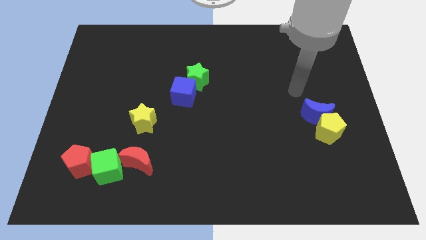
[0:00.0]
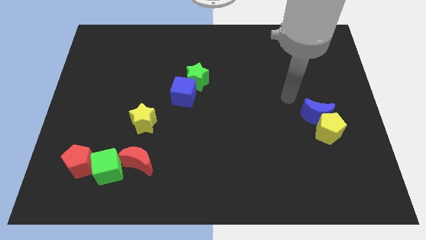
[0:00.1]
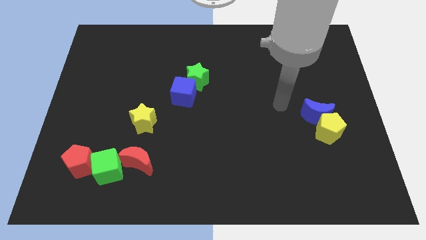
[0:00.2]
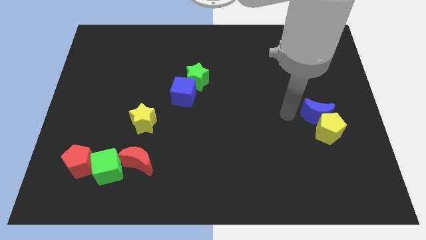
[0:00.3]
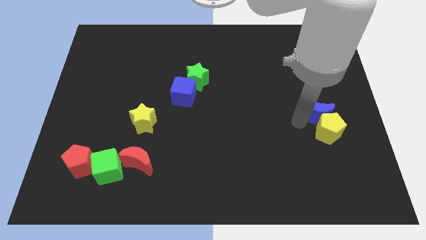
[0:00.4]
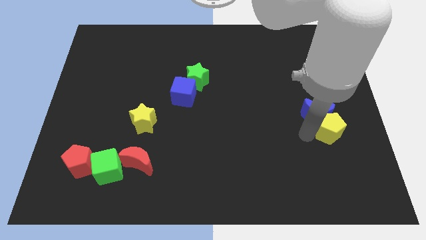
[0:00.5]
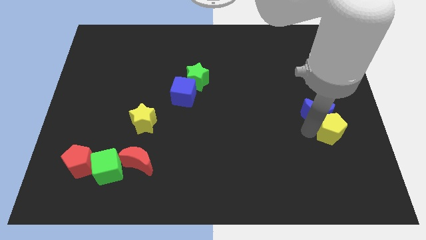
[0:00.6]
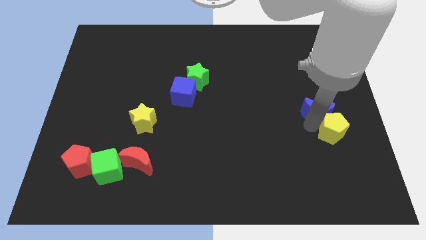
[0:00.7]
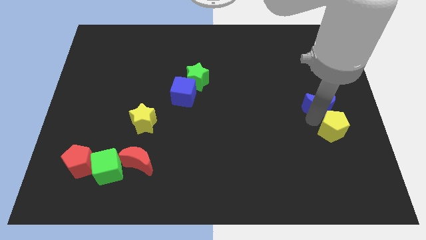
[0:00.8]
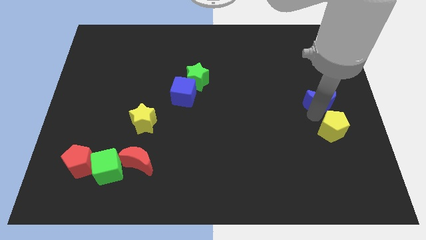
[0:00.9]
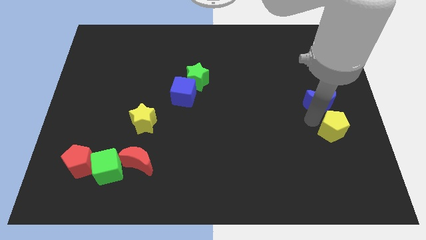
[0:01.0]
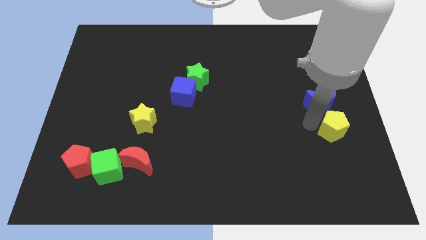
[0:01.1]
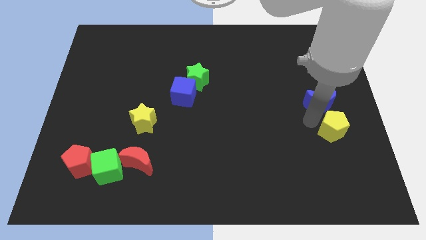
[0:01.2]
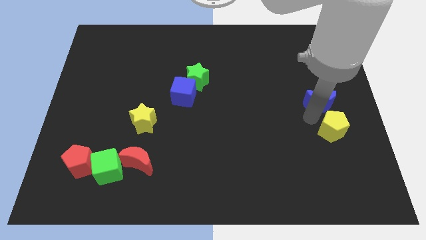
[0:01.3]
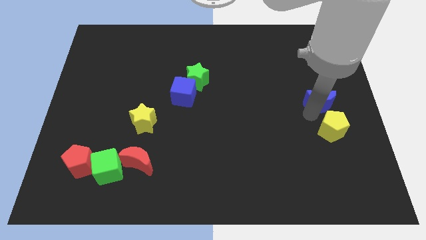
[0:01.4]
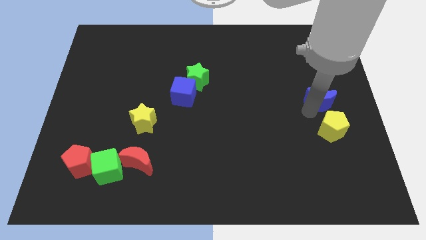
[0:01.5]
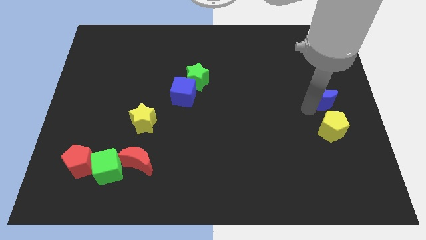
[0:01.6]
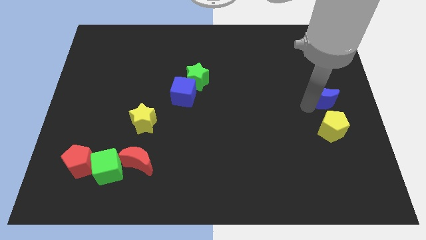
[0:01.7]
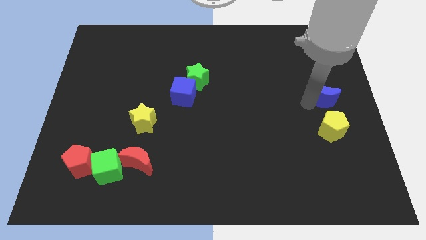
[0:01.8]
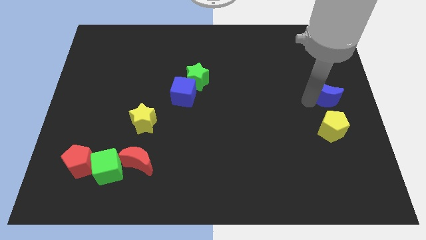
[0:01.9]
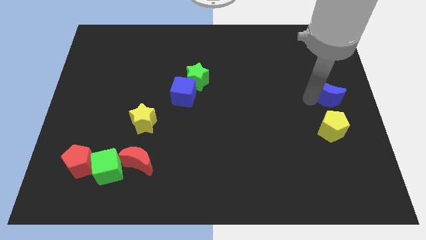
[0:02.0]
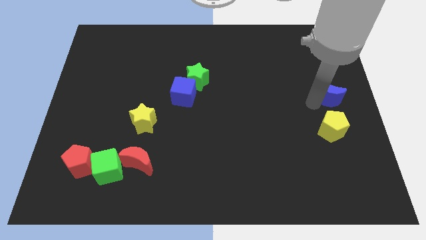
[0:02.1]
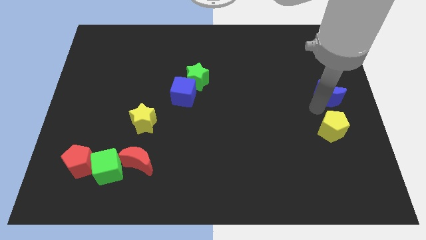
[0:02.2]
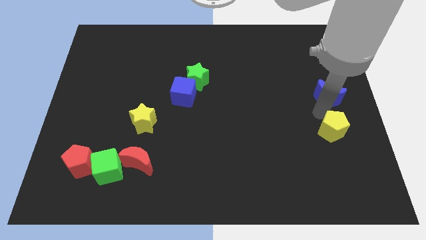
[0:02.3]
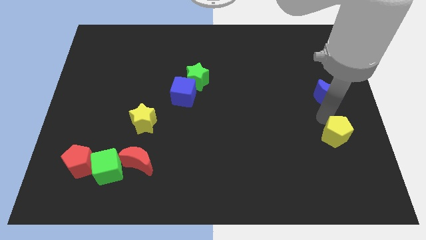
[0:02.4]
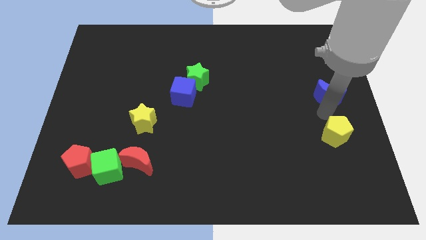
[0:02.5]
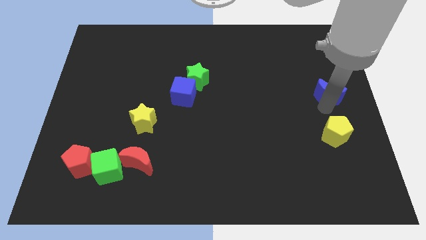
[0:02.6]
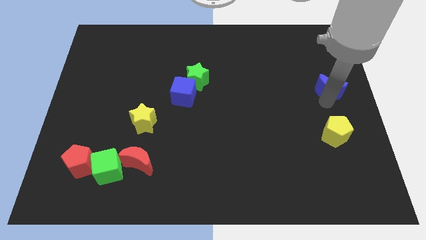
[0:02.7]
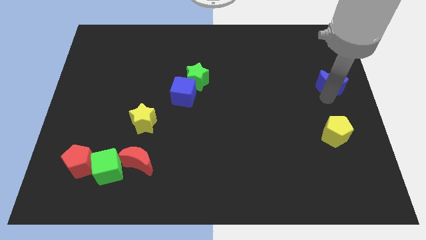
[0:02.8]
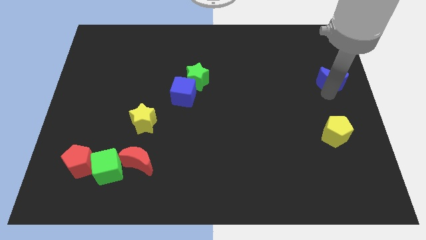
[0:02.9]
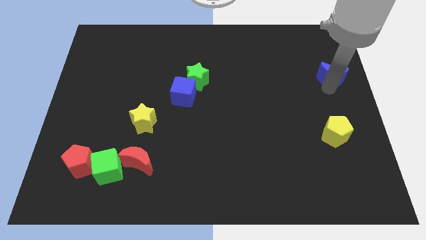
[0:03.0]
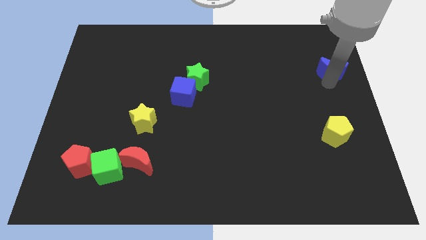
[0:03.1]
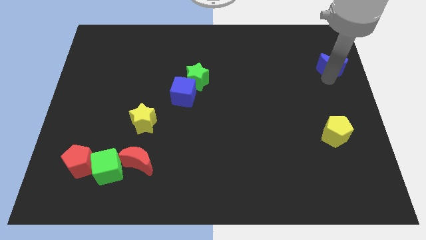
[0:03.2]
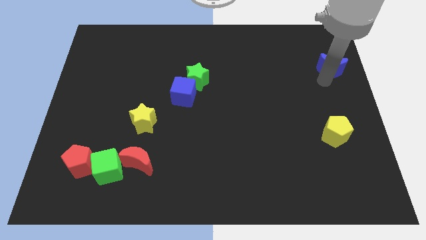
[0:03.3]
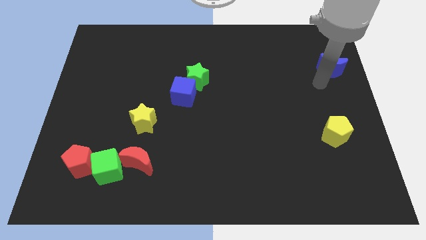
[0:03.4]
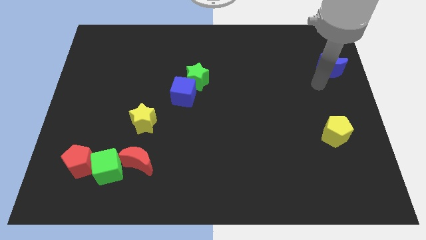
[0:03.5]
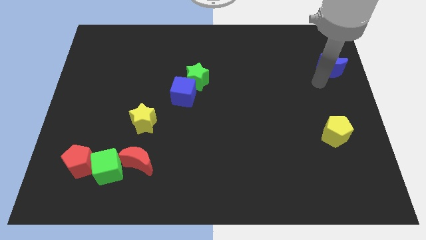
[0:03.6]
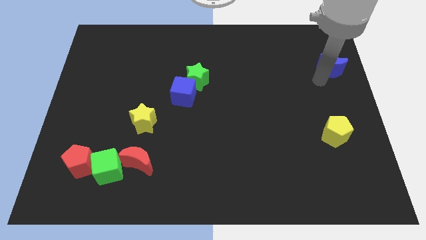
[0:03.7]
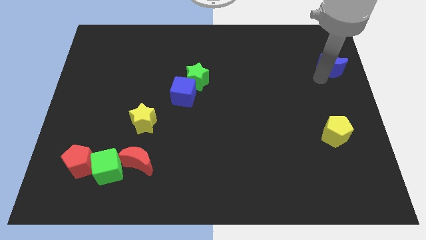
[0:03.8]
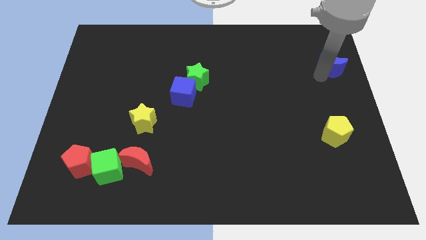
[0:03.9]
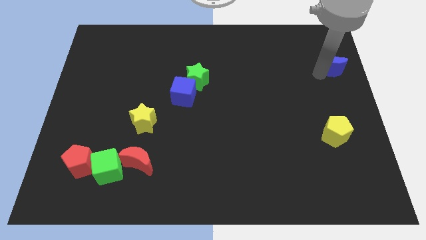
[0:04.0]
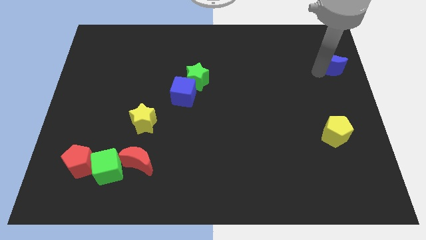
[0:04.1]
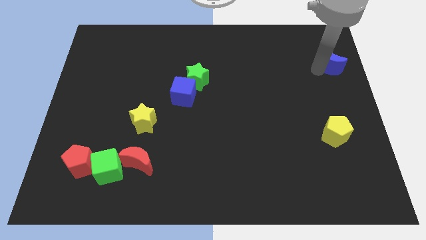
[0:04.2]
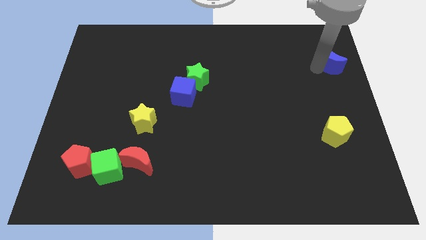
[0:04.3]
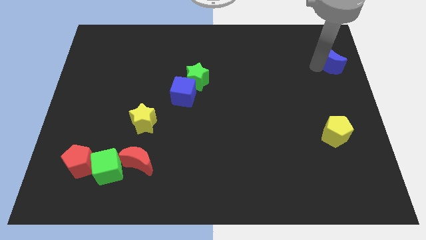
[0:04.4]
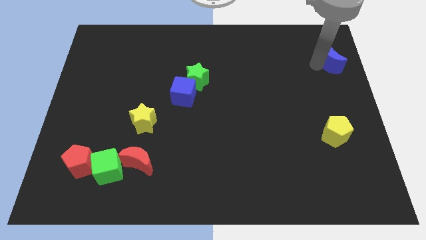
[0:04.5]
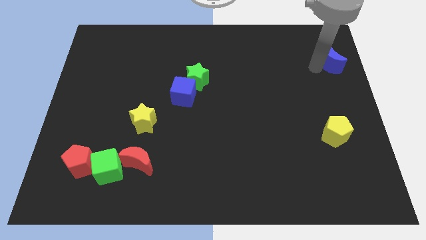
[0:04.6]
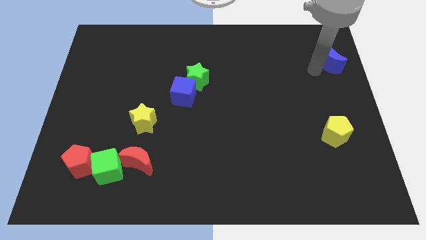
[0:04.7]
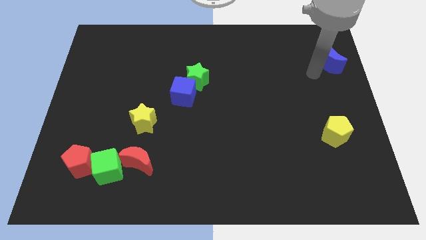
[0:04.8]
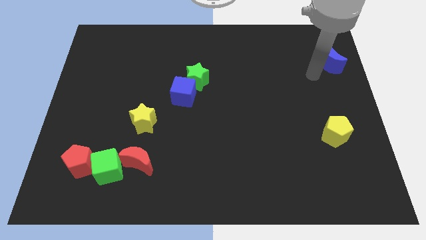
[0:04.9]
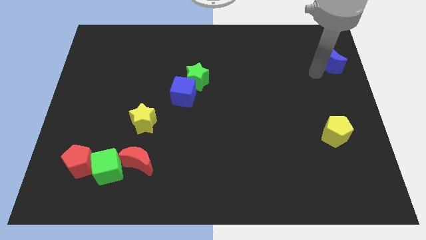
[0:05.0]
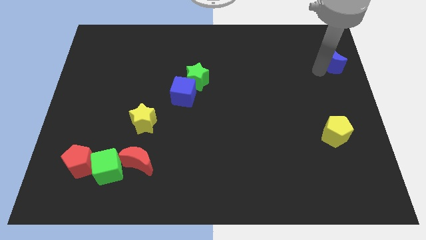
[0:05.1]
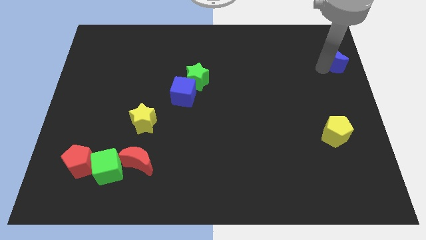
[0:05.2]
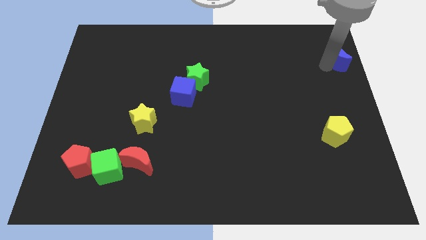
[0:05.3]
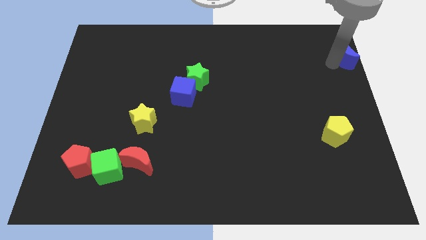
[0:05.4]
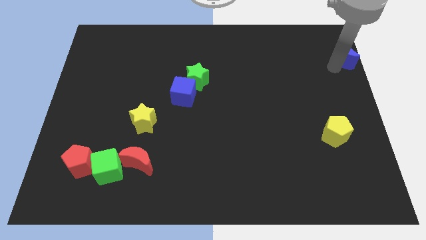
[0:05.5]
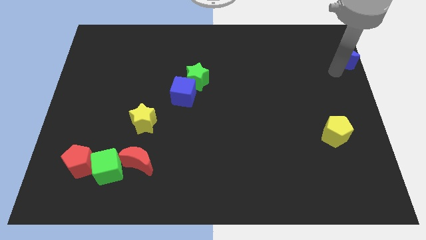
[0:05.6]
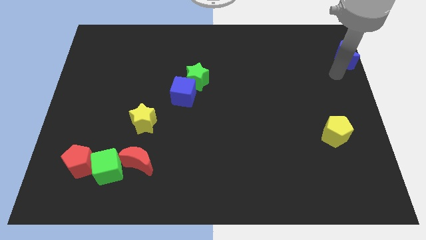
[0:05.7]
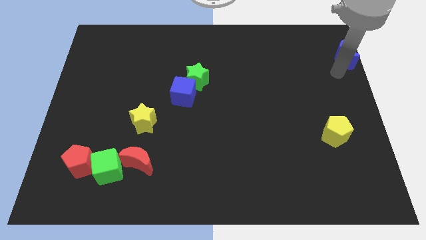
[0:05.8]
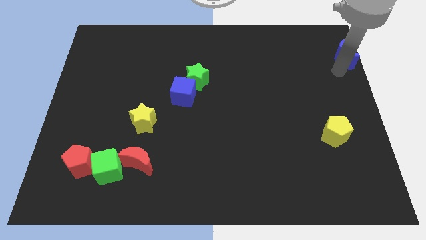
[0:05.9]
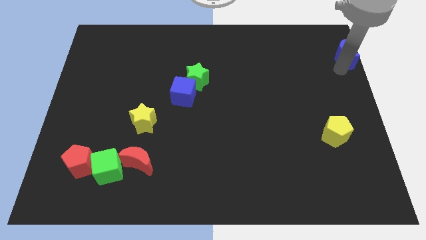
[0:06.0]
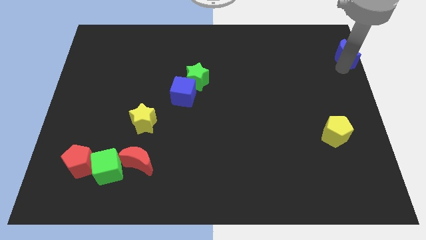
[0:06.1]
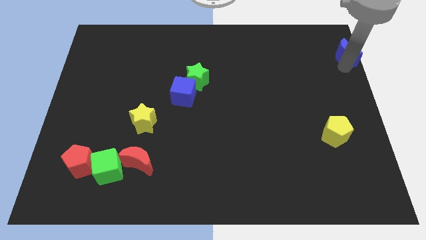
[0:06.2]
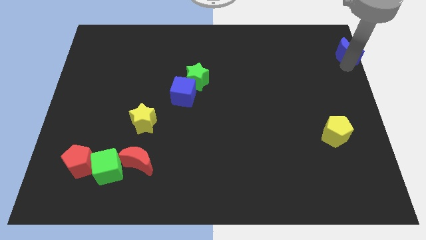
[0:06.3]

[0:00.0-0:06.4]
push the blue moon to the upper right corner

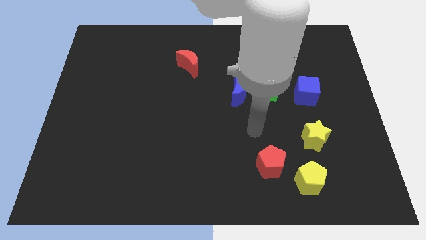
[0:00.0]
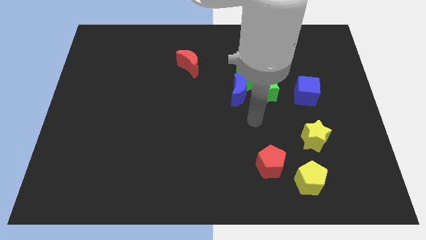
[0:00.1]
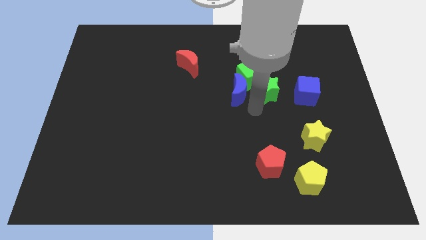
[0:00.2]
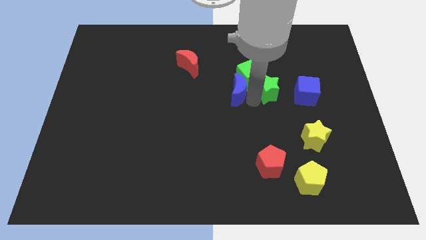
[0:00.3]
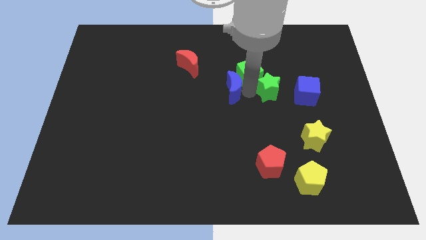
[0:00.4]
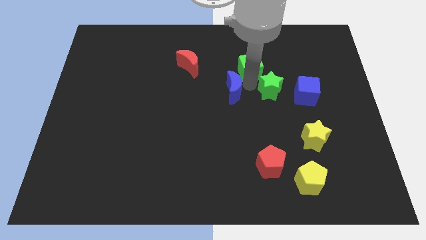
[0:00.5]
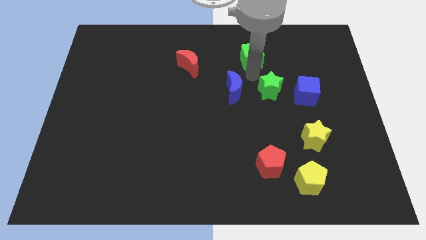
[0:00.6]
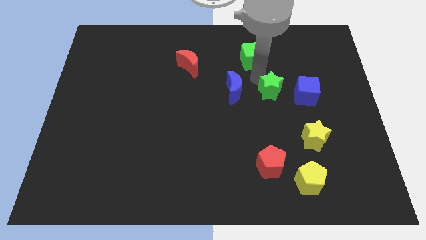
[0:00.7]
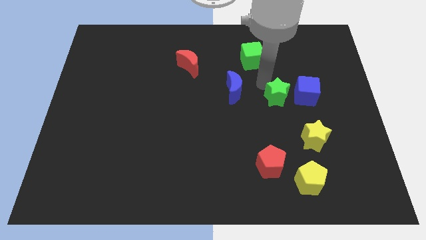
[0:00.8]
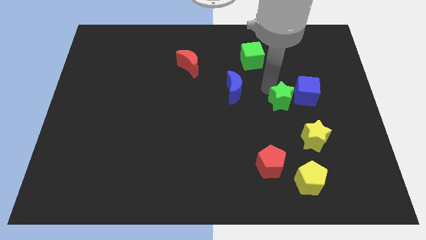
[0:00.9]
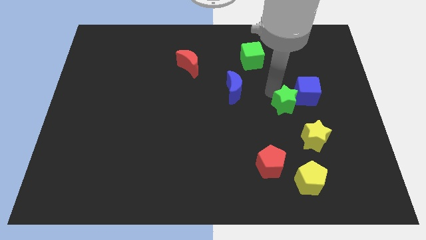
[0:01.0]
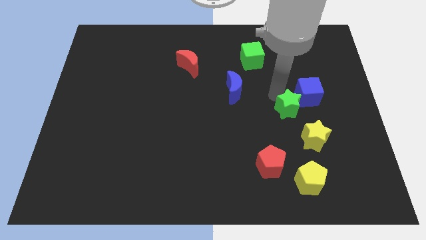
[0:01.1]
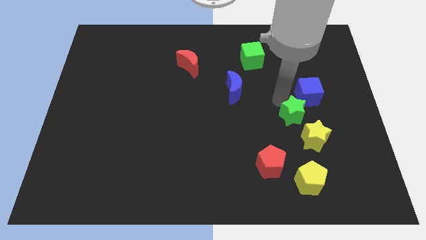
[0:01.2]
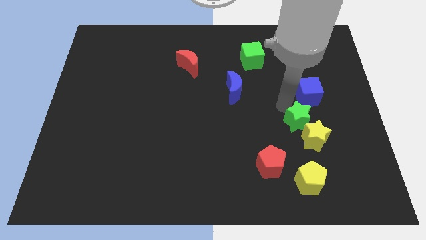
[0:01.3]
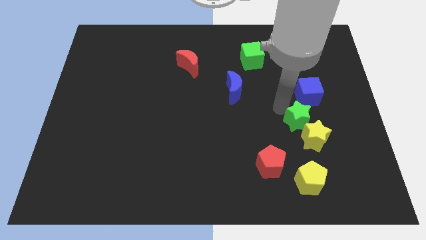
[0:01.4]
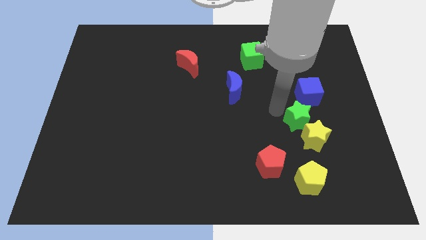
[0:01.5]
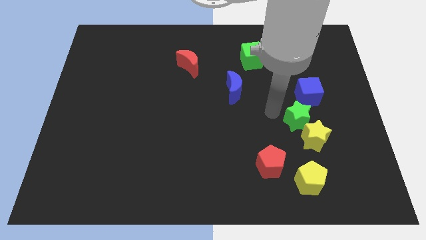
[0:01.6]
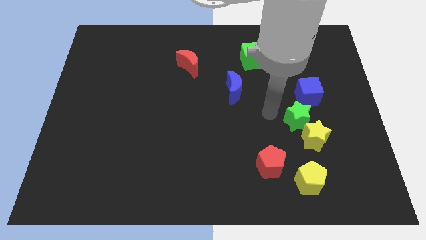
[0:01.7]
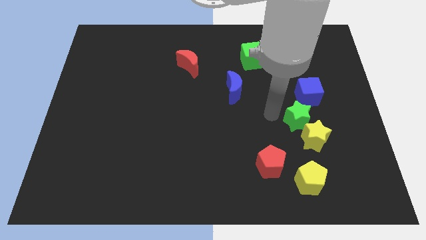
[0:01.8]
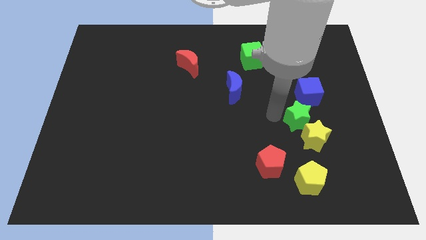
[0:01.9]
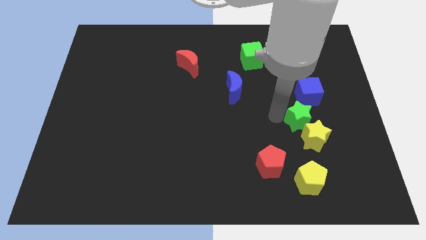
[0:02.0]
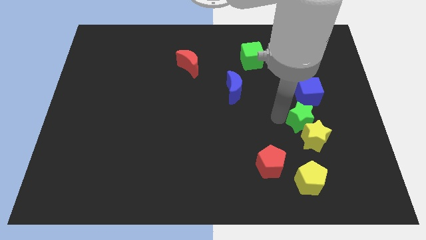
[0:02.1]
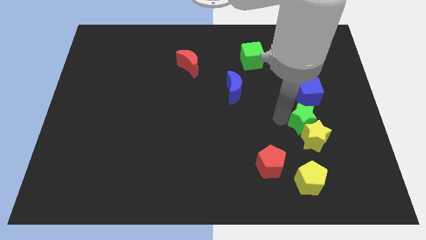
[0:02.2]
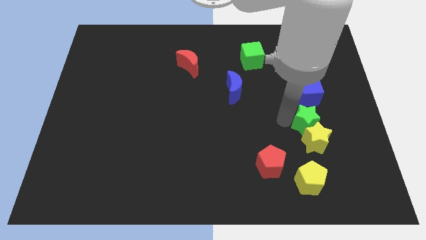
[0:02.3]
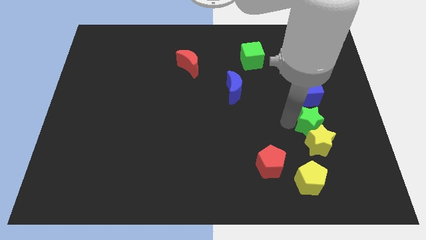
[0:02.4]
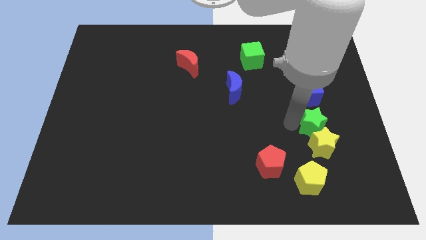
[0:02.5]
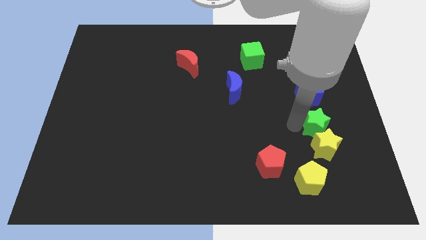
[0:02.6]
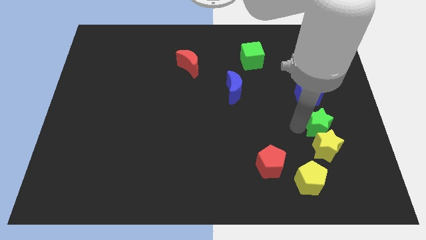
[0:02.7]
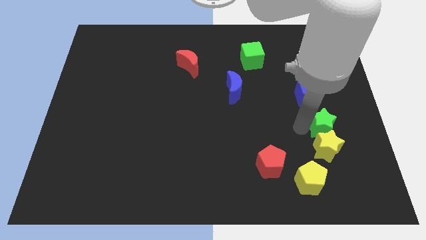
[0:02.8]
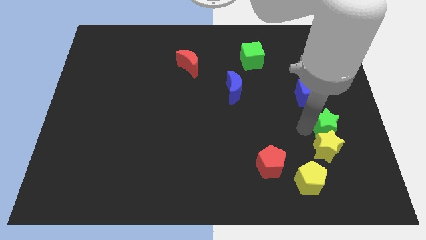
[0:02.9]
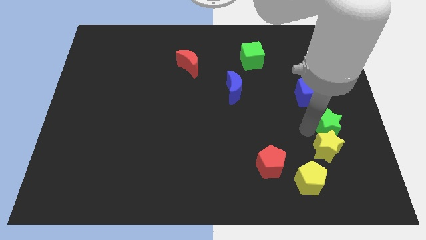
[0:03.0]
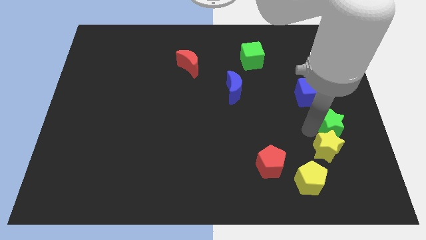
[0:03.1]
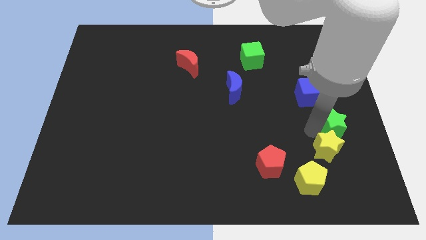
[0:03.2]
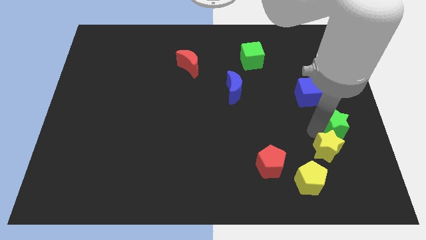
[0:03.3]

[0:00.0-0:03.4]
push the green star to the right side
